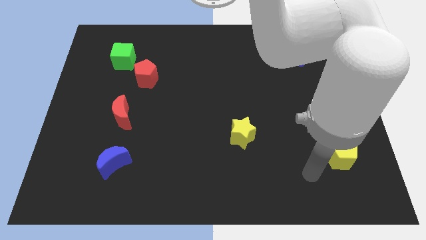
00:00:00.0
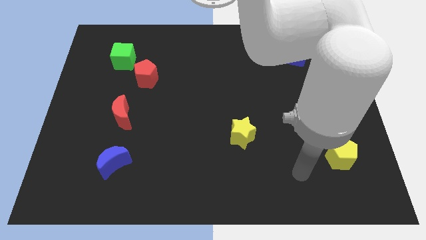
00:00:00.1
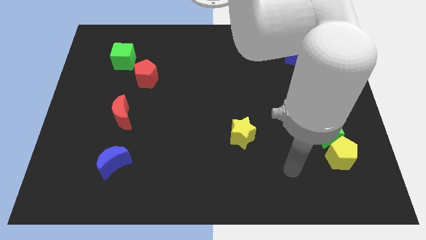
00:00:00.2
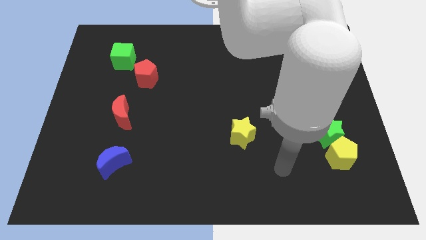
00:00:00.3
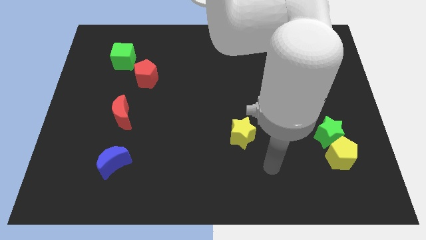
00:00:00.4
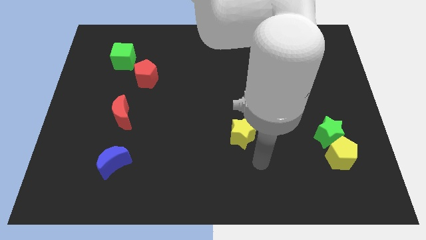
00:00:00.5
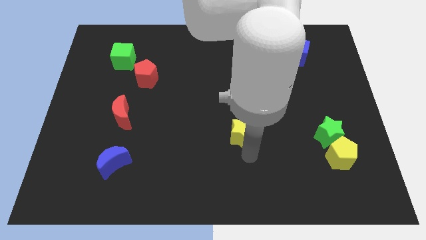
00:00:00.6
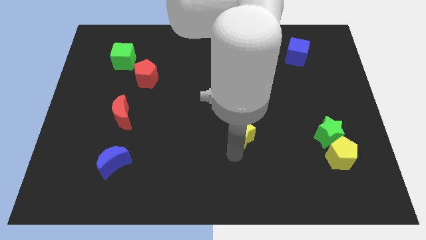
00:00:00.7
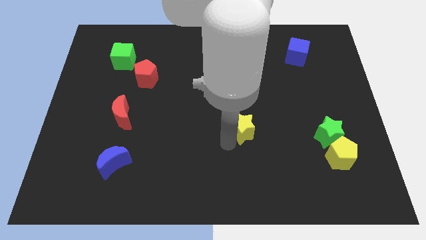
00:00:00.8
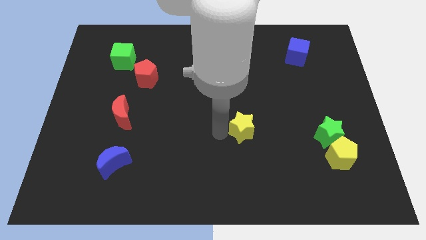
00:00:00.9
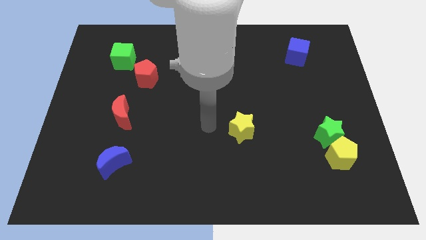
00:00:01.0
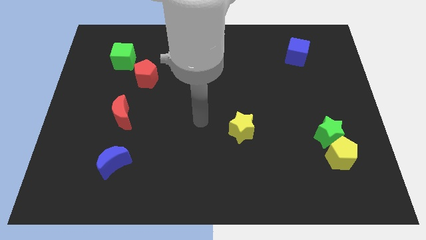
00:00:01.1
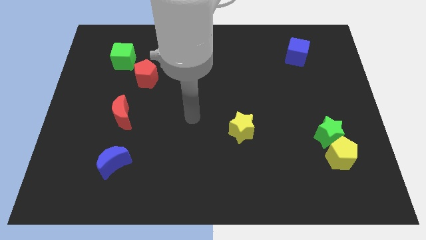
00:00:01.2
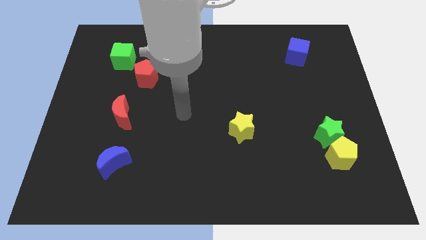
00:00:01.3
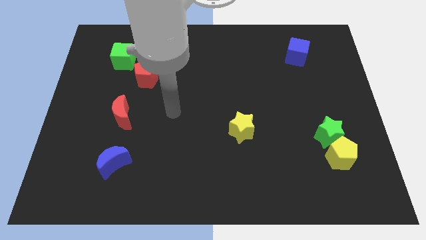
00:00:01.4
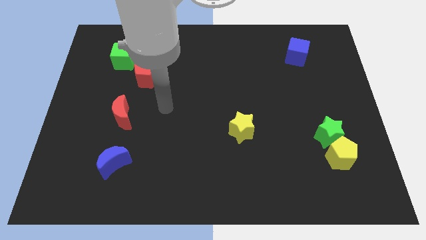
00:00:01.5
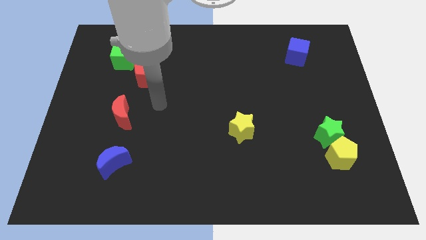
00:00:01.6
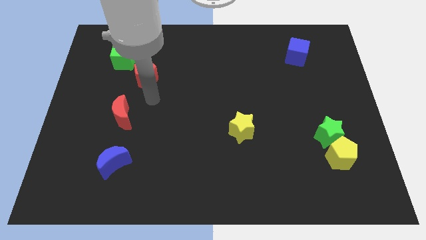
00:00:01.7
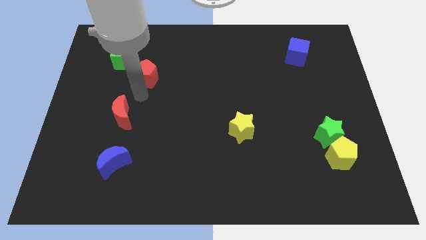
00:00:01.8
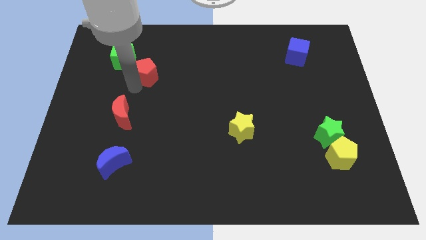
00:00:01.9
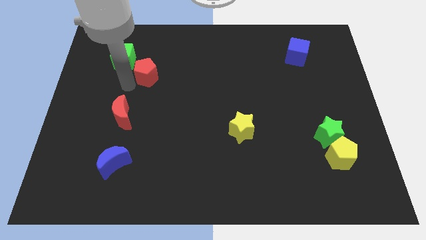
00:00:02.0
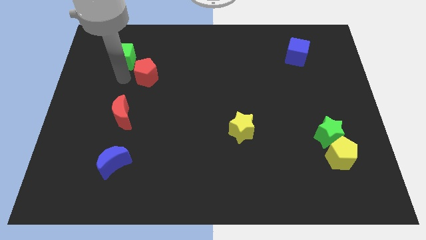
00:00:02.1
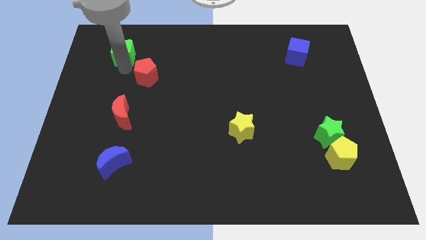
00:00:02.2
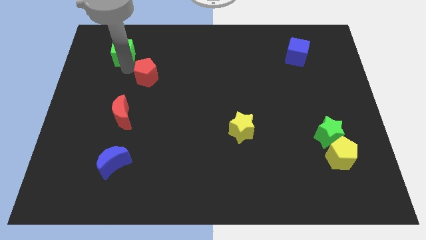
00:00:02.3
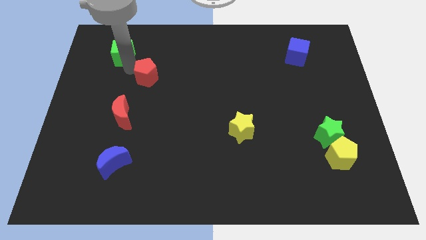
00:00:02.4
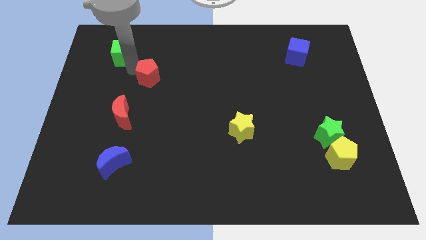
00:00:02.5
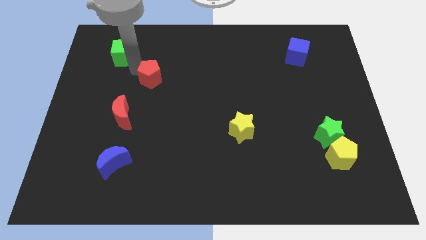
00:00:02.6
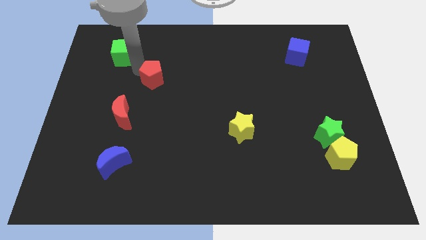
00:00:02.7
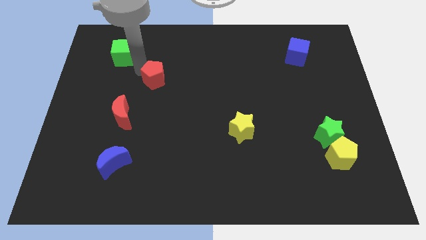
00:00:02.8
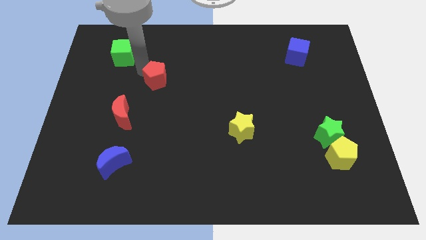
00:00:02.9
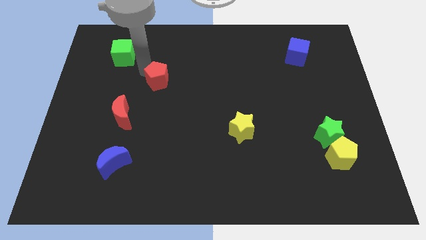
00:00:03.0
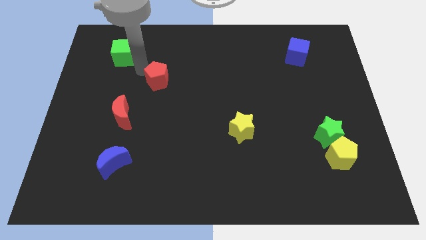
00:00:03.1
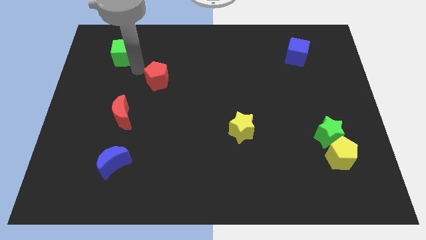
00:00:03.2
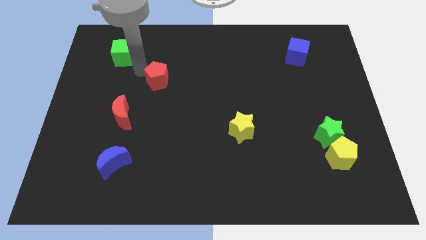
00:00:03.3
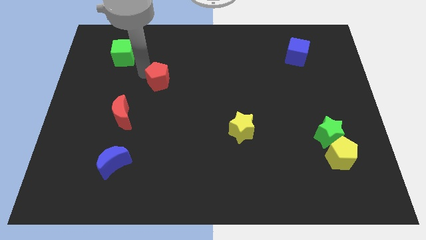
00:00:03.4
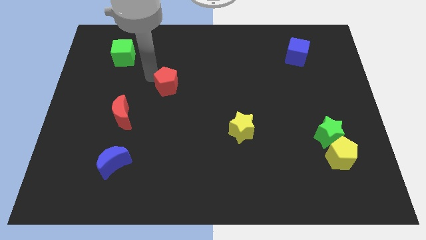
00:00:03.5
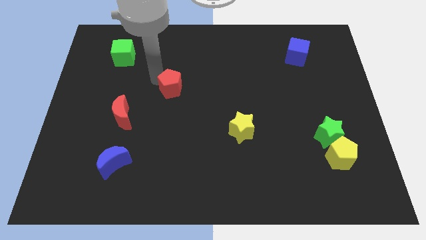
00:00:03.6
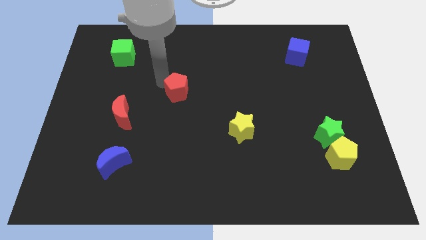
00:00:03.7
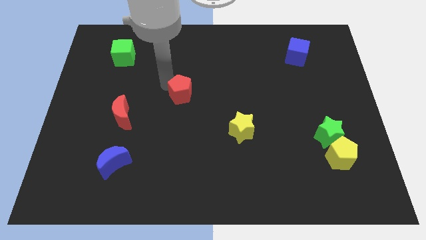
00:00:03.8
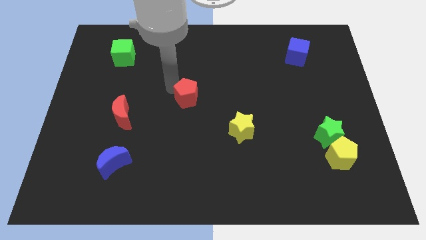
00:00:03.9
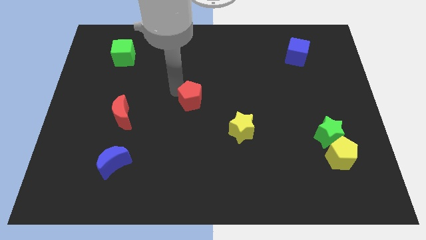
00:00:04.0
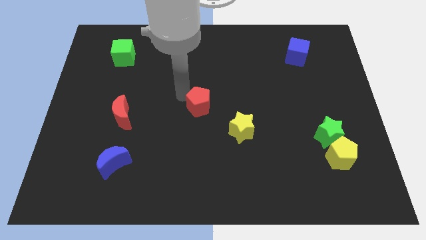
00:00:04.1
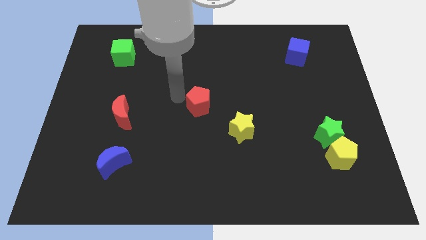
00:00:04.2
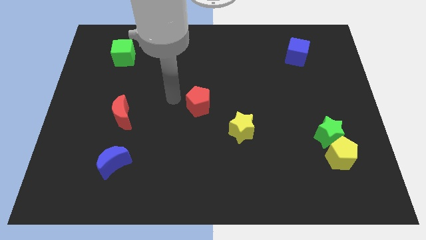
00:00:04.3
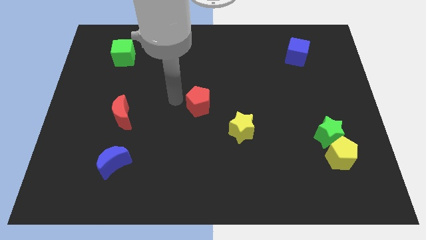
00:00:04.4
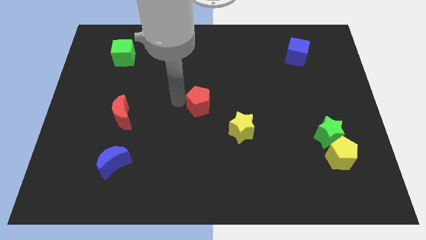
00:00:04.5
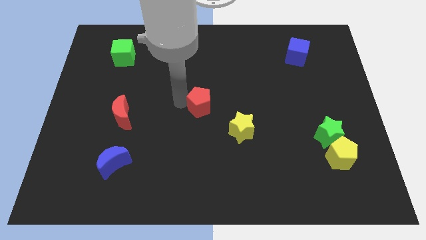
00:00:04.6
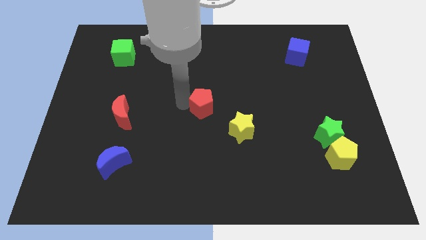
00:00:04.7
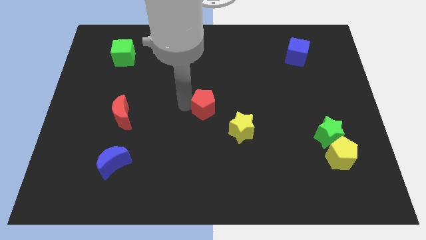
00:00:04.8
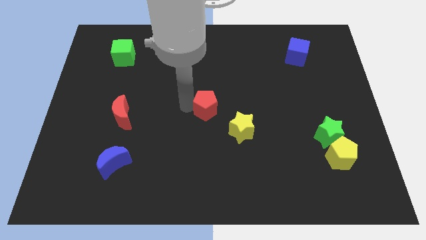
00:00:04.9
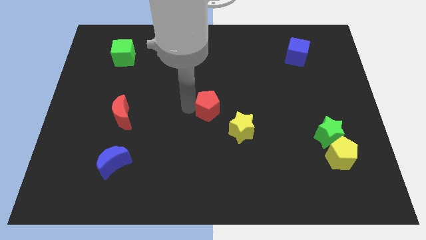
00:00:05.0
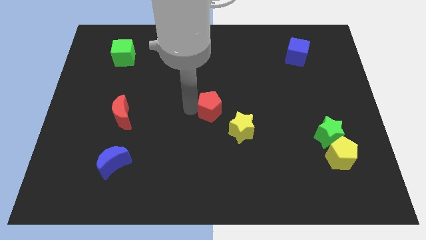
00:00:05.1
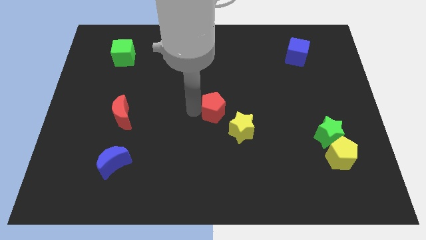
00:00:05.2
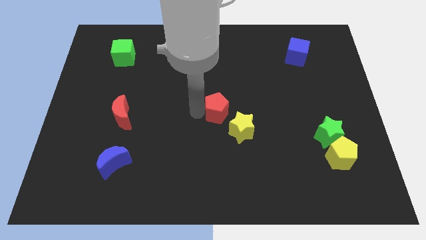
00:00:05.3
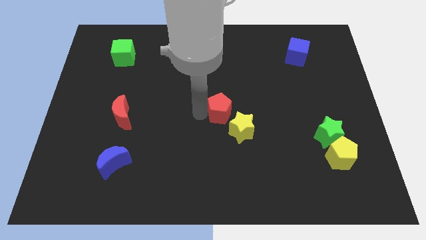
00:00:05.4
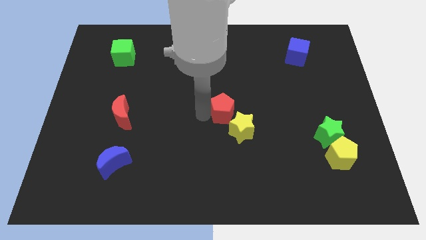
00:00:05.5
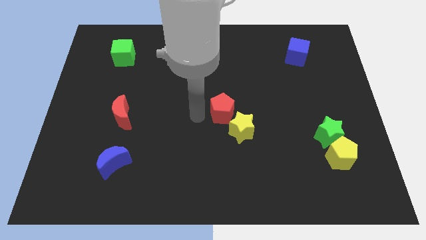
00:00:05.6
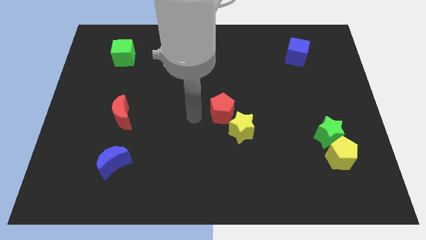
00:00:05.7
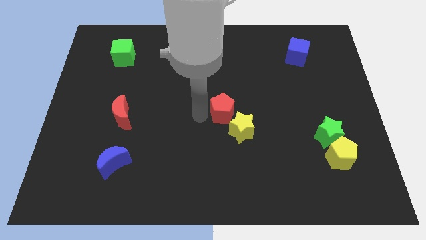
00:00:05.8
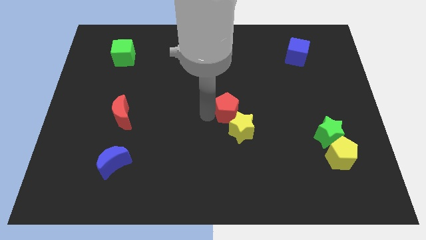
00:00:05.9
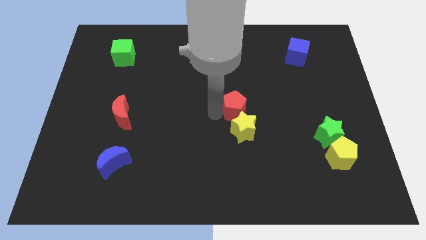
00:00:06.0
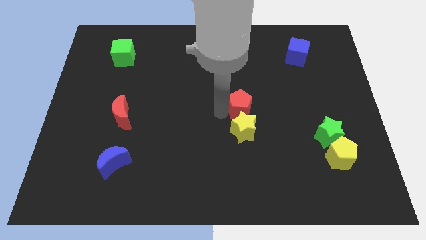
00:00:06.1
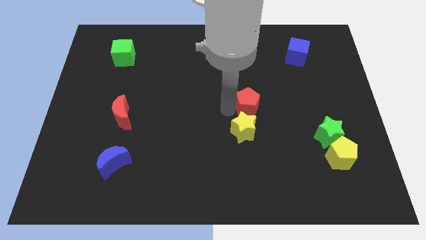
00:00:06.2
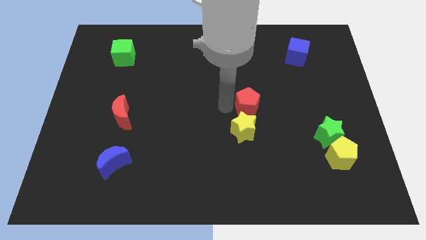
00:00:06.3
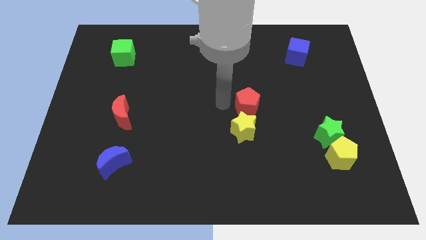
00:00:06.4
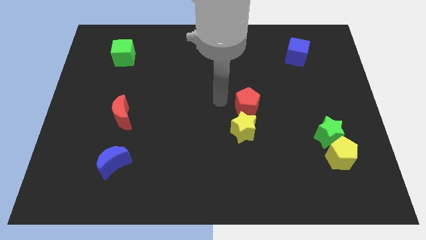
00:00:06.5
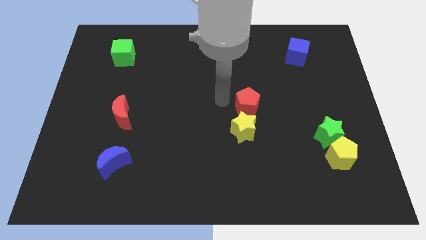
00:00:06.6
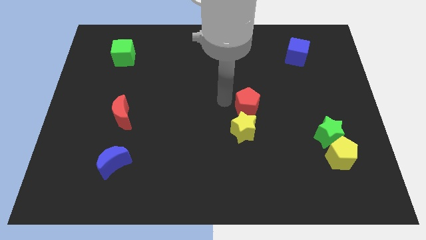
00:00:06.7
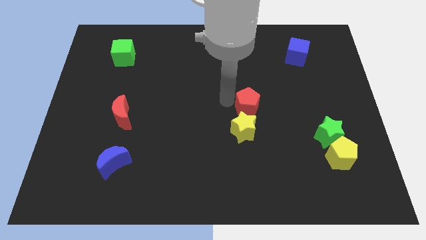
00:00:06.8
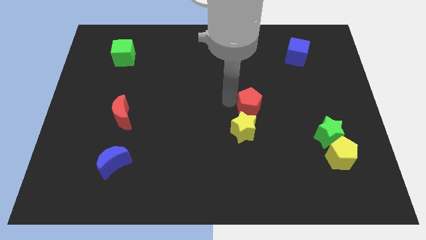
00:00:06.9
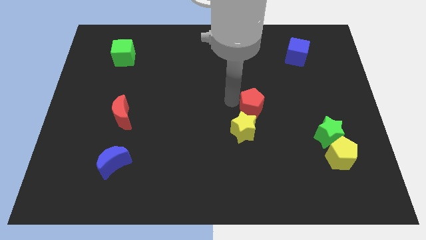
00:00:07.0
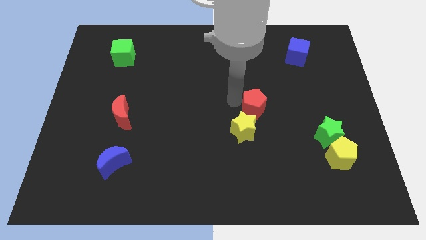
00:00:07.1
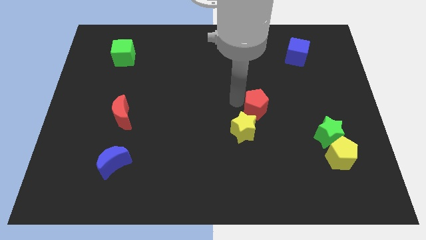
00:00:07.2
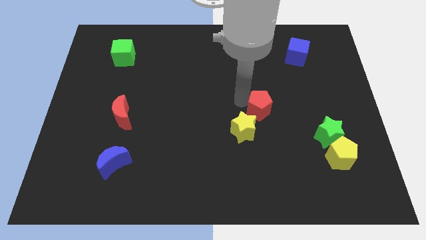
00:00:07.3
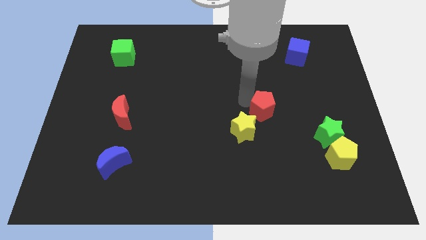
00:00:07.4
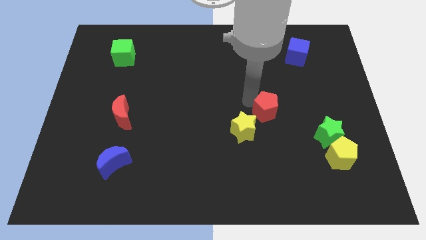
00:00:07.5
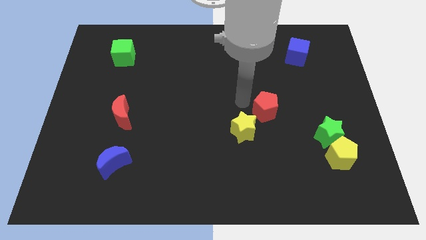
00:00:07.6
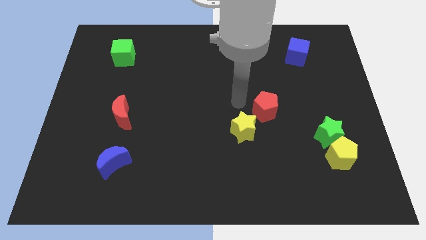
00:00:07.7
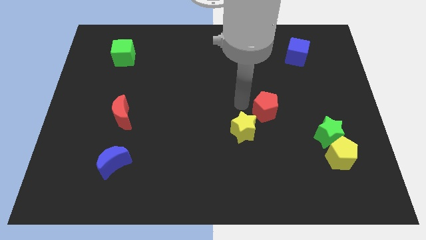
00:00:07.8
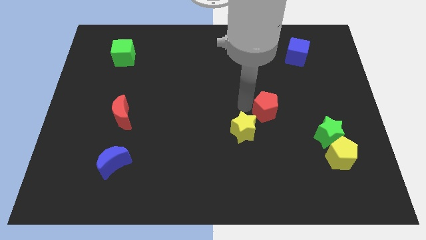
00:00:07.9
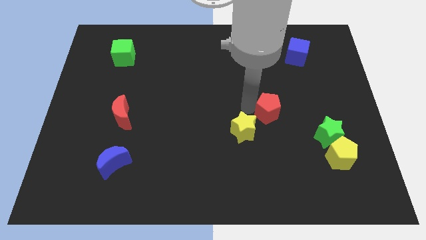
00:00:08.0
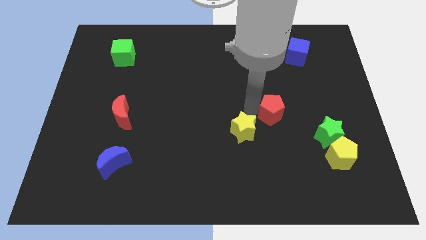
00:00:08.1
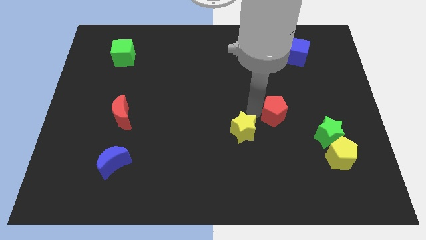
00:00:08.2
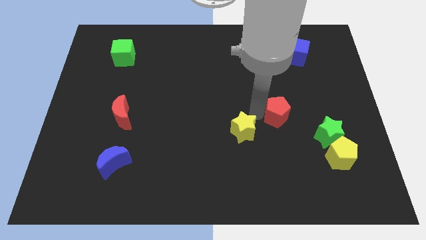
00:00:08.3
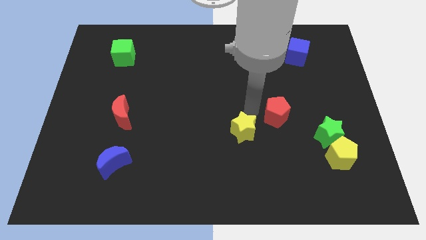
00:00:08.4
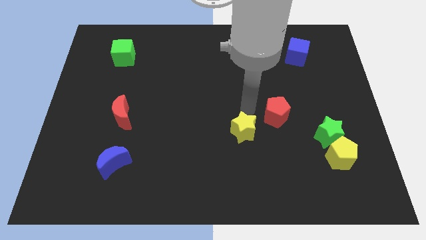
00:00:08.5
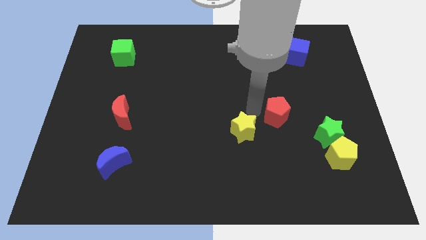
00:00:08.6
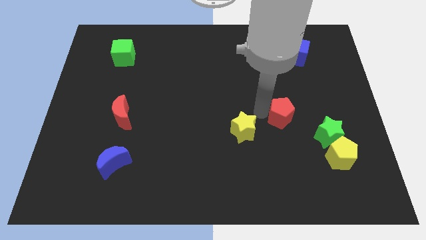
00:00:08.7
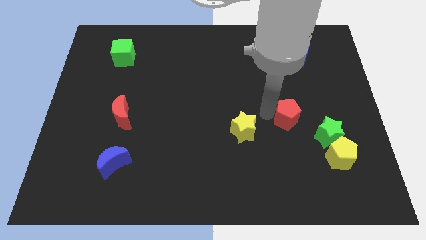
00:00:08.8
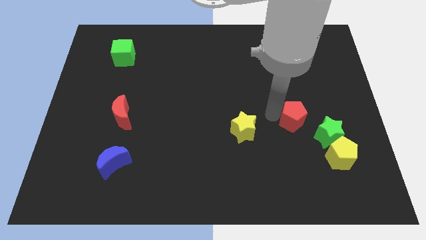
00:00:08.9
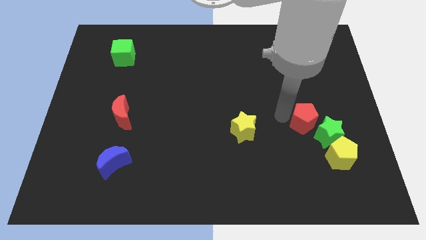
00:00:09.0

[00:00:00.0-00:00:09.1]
move the red pentagon to the green star
